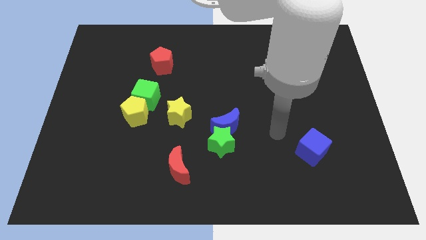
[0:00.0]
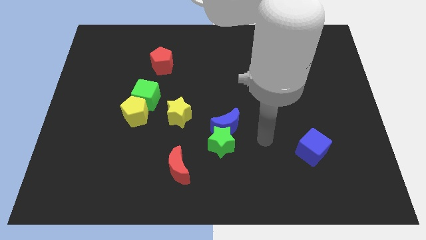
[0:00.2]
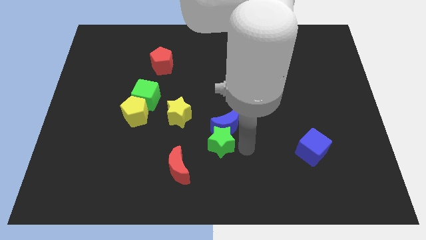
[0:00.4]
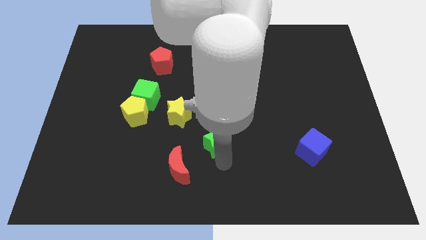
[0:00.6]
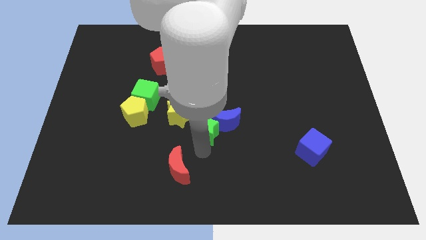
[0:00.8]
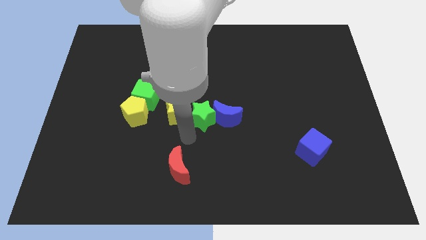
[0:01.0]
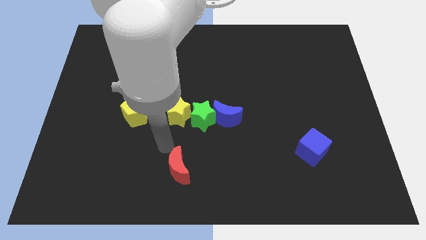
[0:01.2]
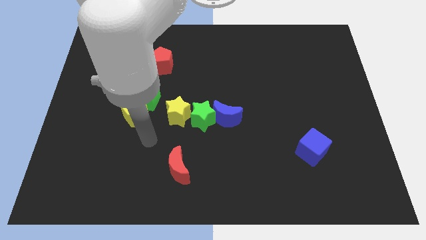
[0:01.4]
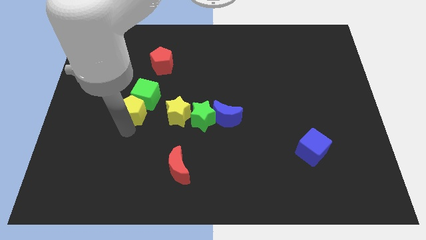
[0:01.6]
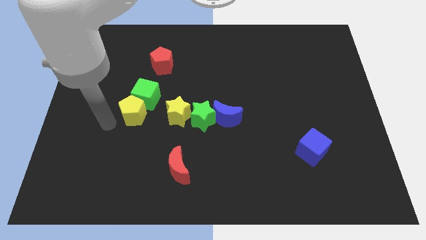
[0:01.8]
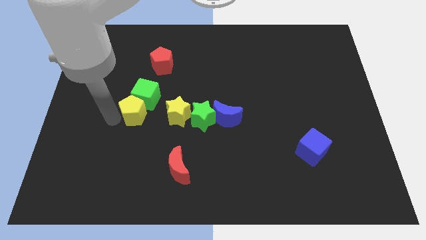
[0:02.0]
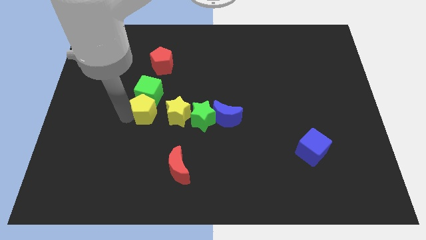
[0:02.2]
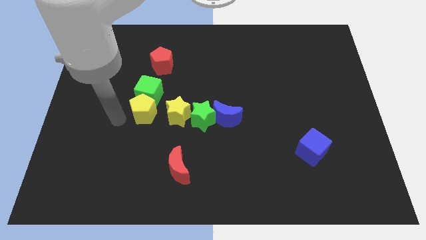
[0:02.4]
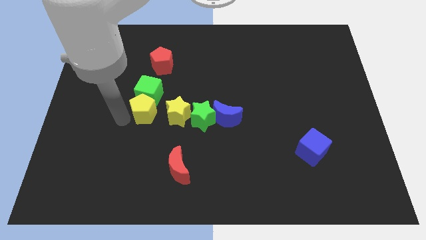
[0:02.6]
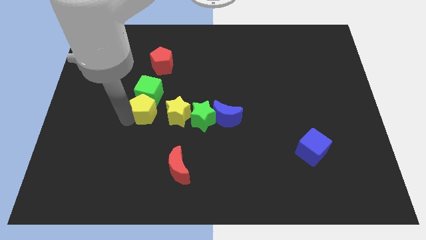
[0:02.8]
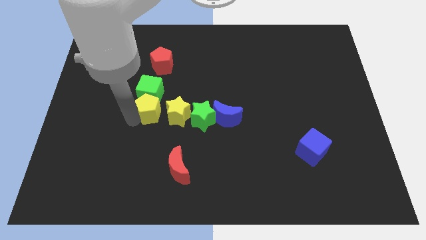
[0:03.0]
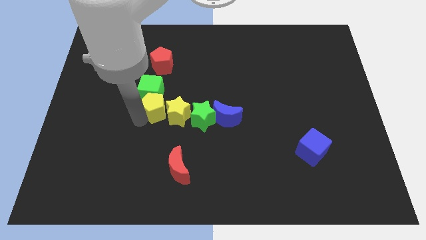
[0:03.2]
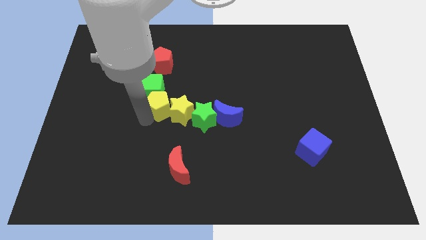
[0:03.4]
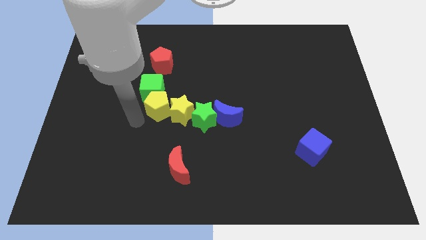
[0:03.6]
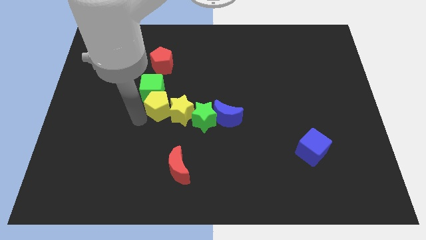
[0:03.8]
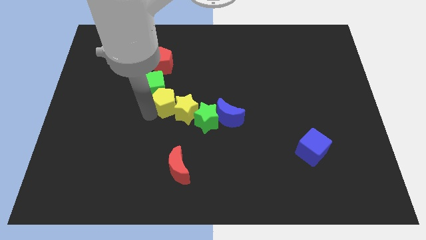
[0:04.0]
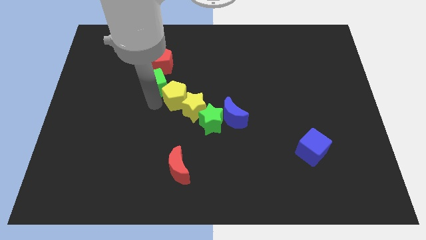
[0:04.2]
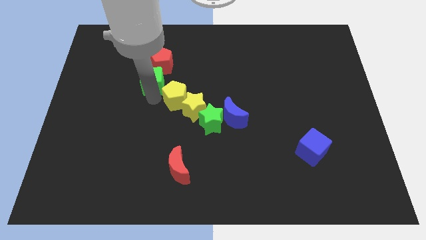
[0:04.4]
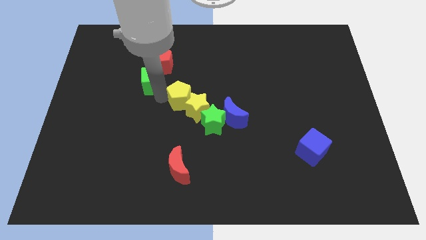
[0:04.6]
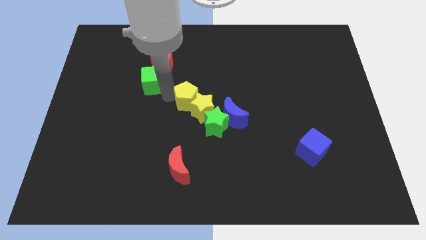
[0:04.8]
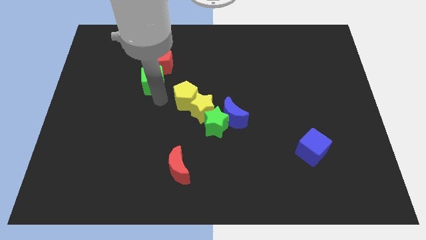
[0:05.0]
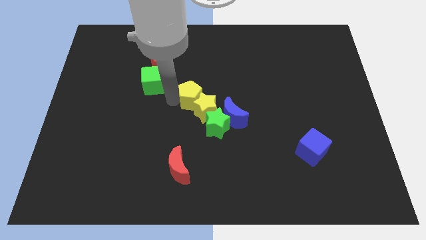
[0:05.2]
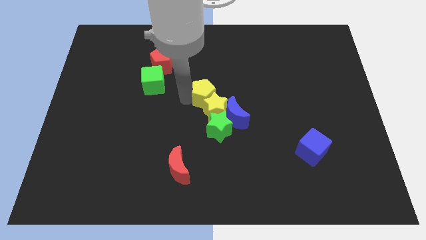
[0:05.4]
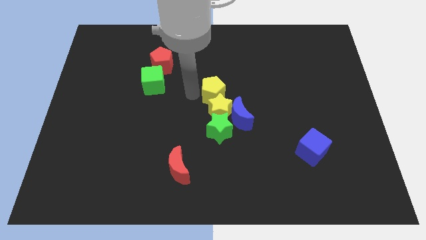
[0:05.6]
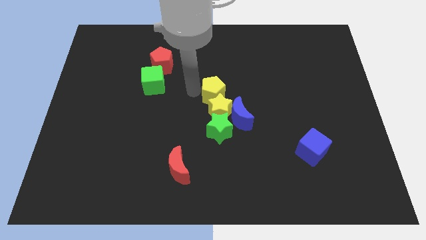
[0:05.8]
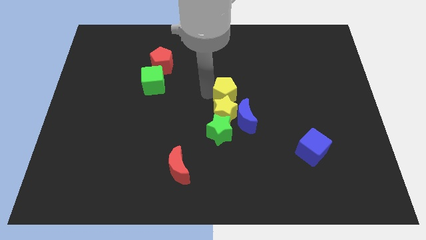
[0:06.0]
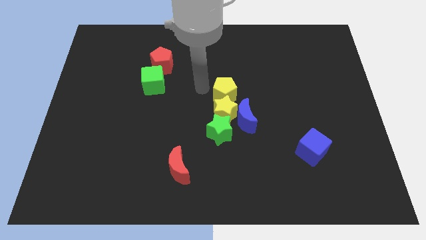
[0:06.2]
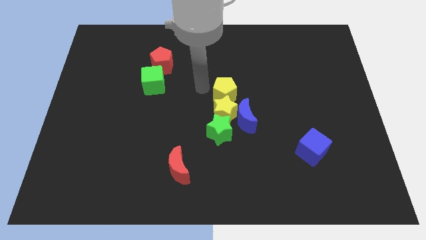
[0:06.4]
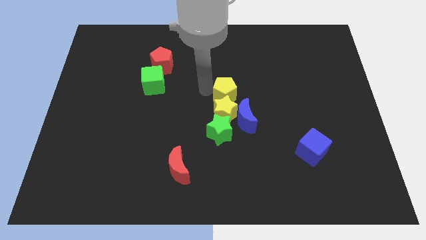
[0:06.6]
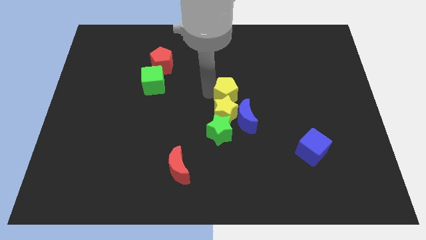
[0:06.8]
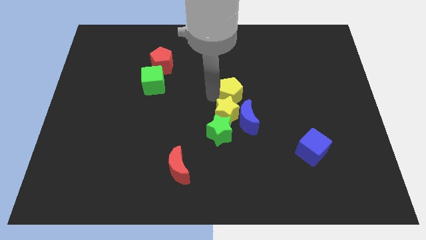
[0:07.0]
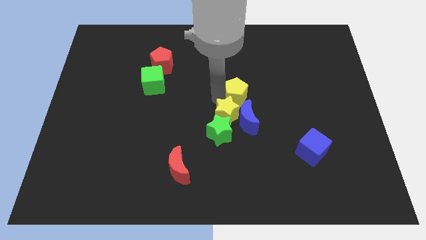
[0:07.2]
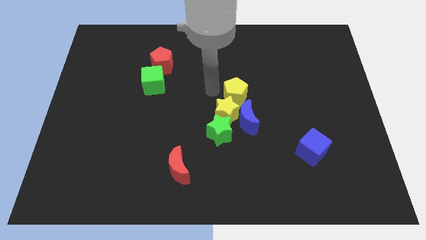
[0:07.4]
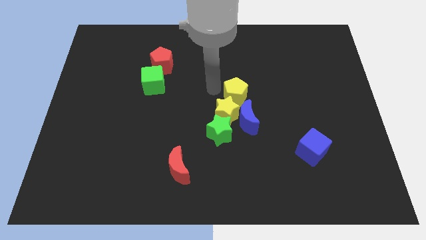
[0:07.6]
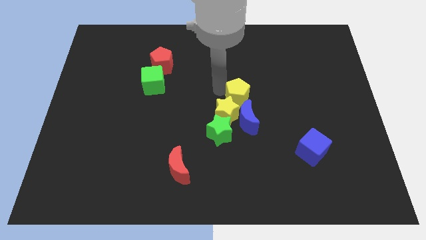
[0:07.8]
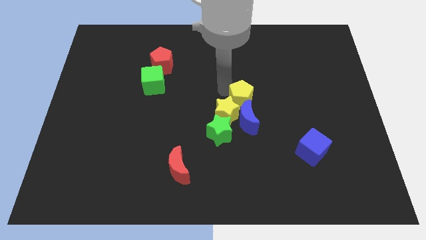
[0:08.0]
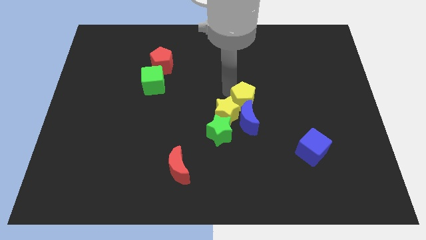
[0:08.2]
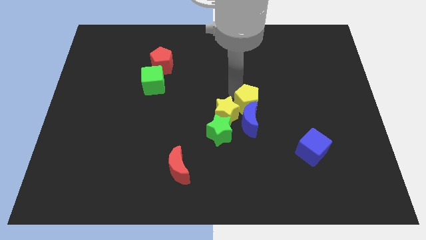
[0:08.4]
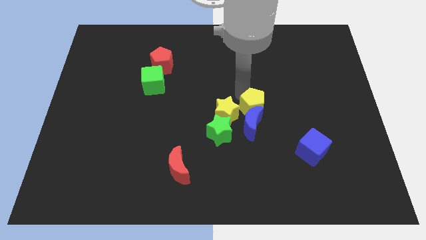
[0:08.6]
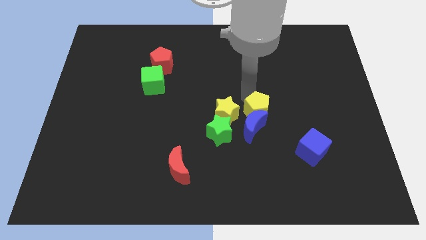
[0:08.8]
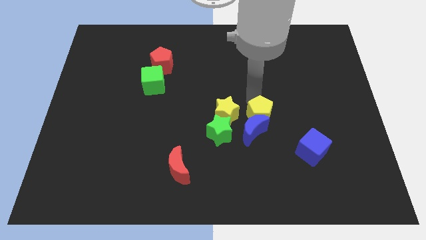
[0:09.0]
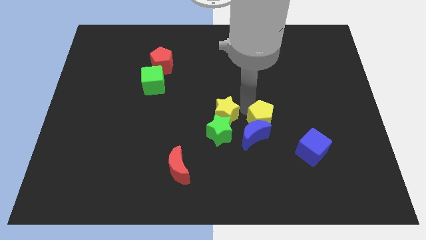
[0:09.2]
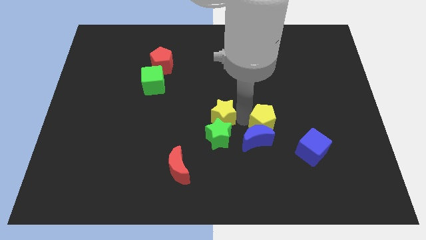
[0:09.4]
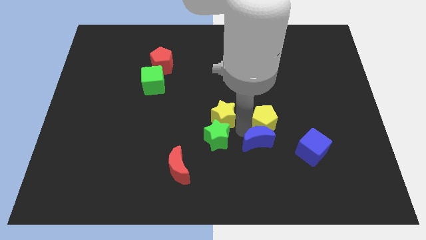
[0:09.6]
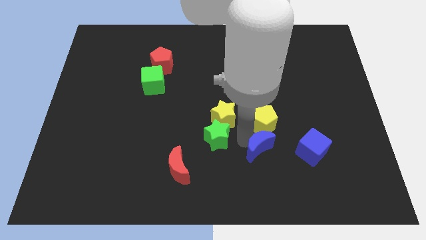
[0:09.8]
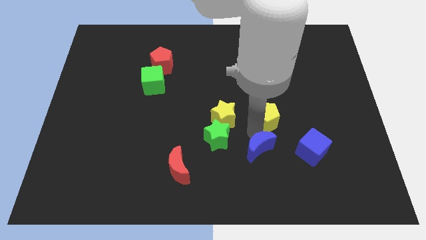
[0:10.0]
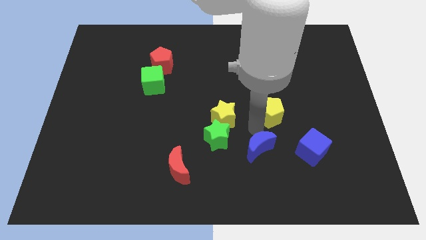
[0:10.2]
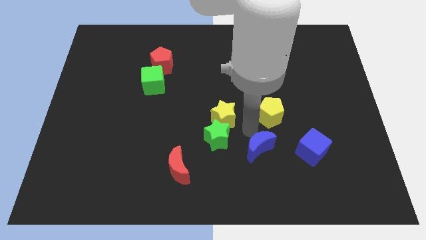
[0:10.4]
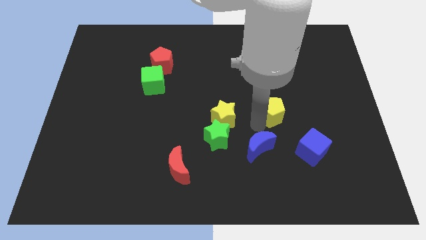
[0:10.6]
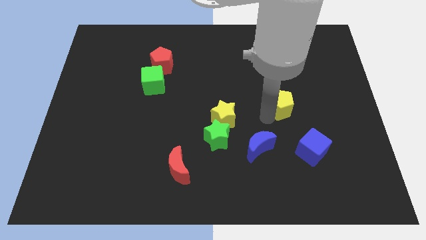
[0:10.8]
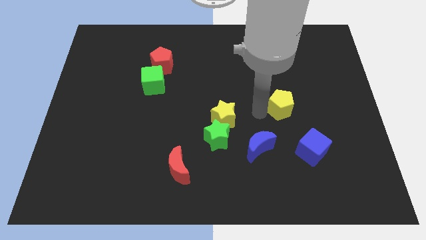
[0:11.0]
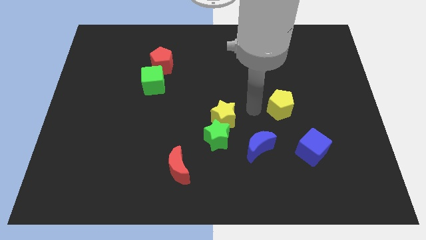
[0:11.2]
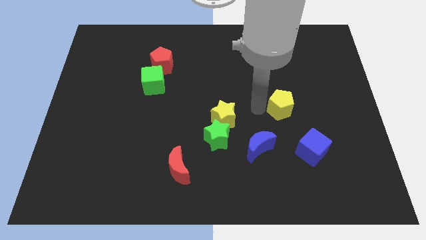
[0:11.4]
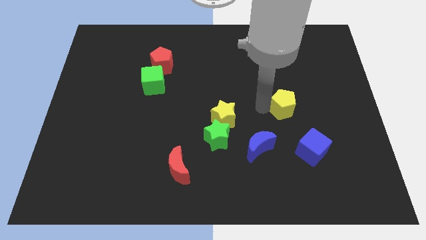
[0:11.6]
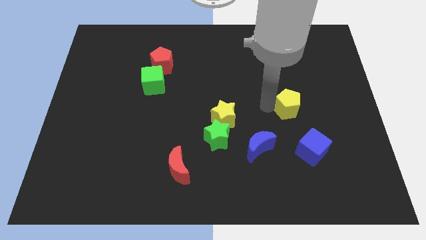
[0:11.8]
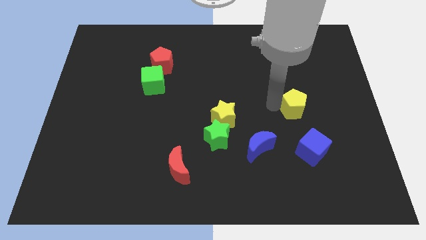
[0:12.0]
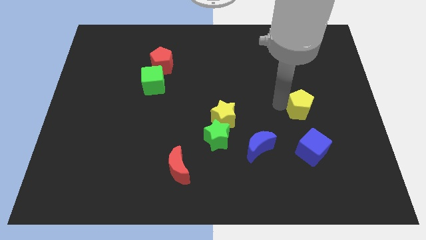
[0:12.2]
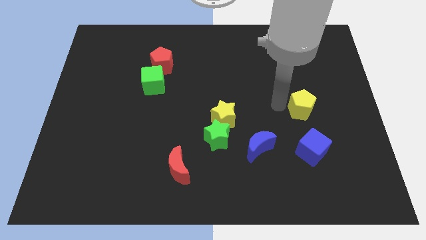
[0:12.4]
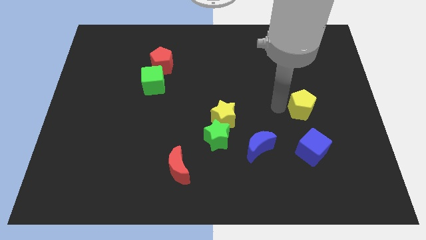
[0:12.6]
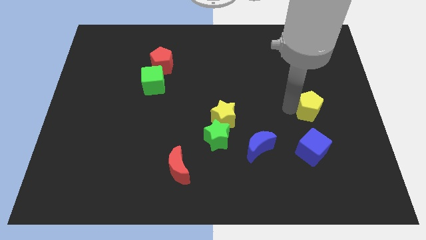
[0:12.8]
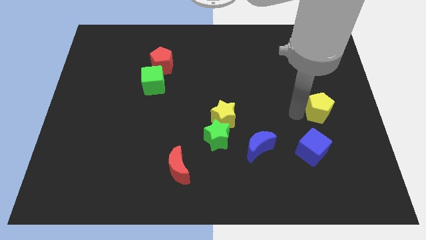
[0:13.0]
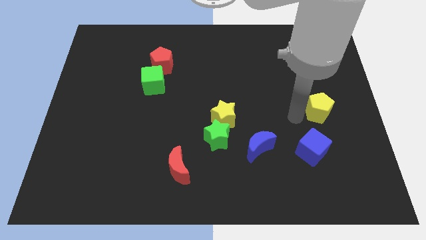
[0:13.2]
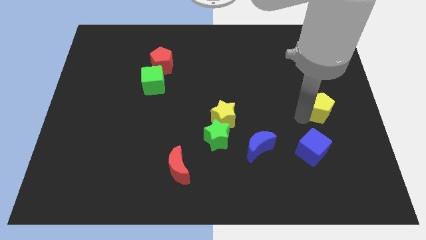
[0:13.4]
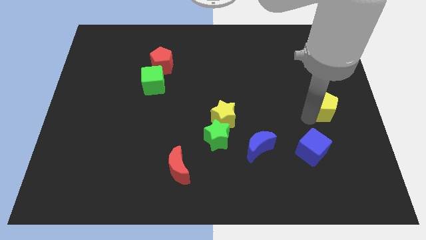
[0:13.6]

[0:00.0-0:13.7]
push the yellow pentagon to the center right
